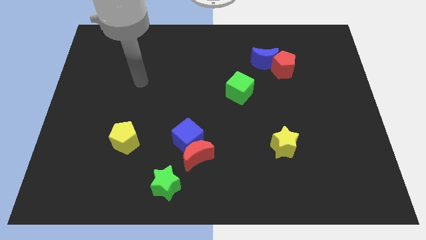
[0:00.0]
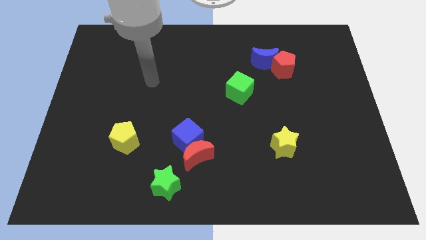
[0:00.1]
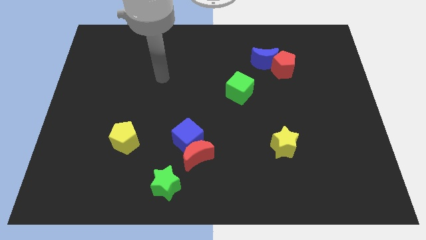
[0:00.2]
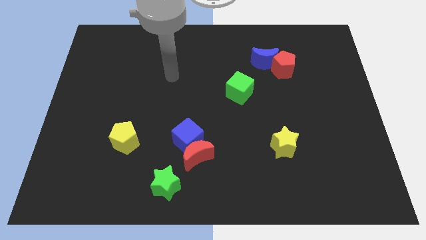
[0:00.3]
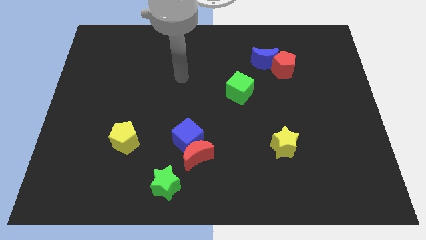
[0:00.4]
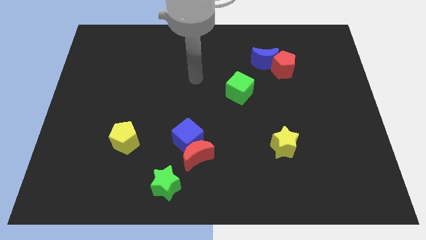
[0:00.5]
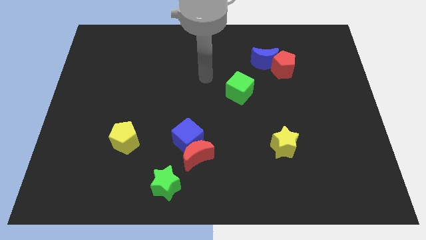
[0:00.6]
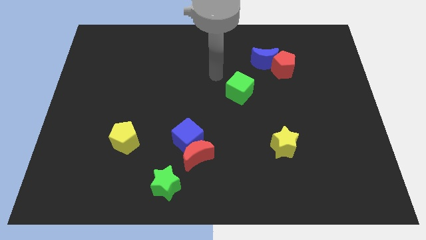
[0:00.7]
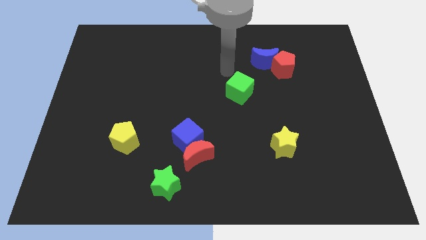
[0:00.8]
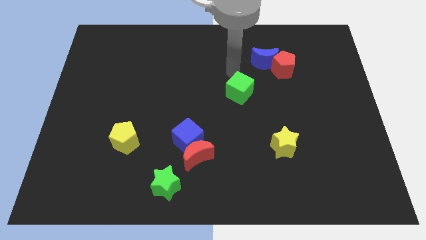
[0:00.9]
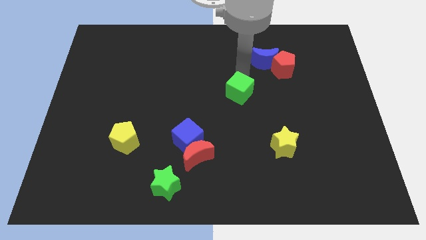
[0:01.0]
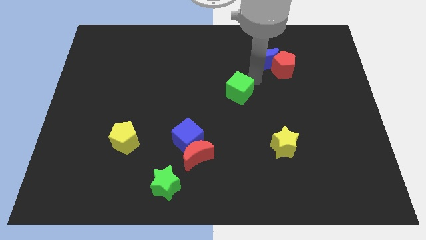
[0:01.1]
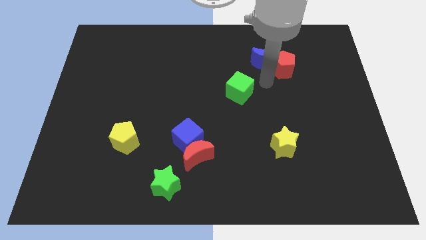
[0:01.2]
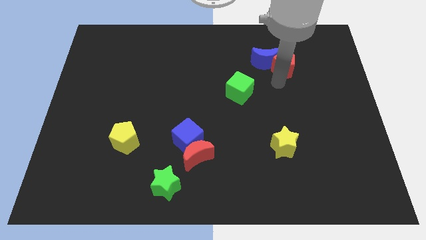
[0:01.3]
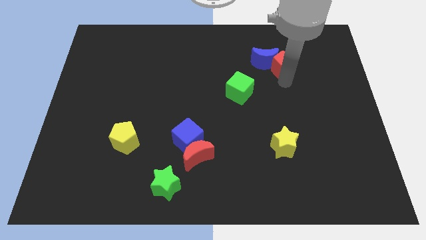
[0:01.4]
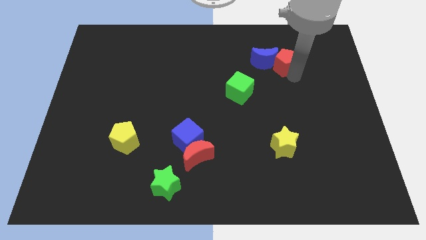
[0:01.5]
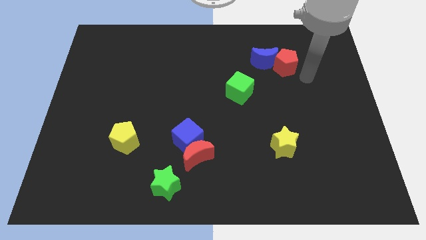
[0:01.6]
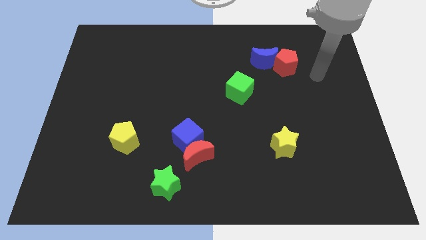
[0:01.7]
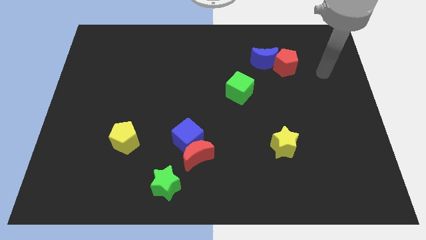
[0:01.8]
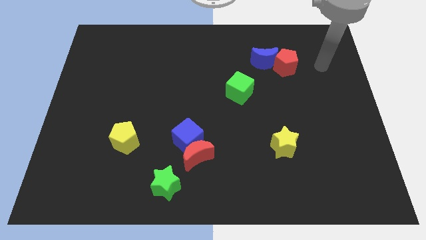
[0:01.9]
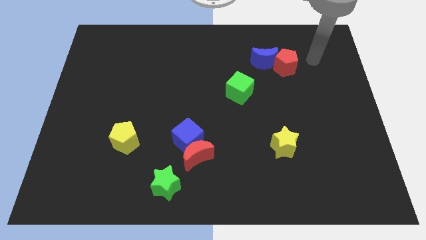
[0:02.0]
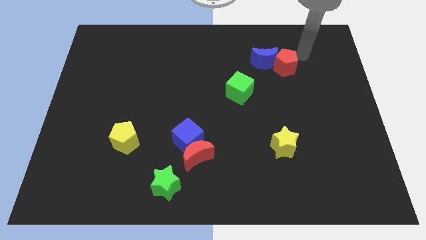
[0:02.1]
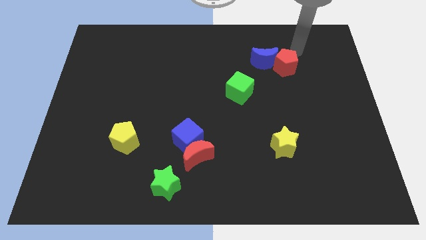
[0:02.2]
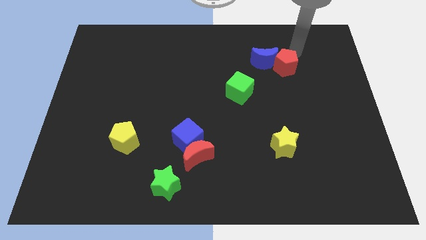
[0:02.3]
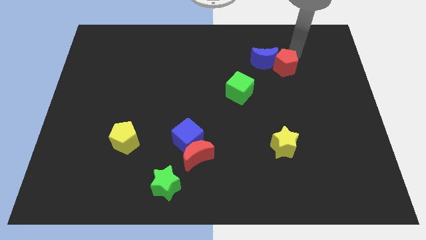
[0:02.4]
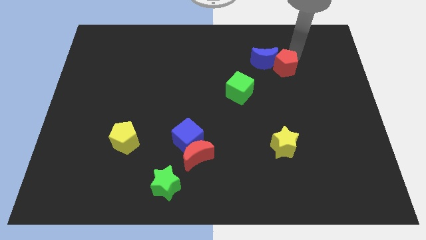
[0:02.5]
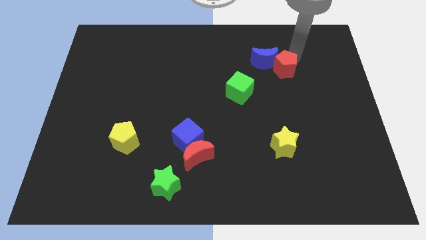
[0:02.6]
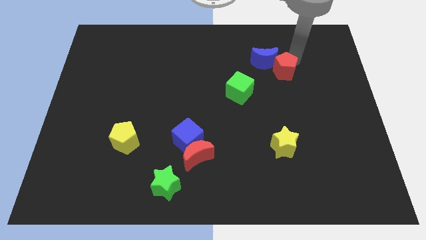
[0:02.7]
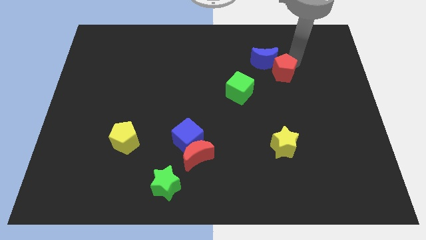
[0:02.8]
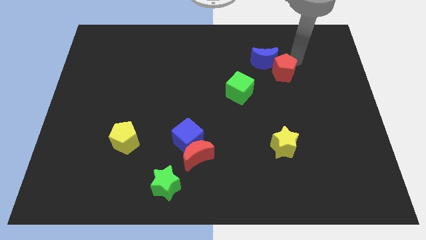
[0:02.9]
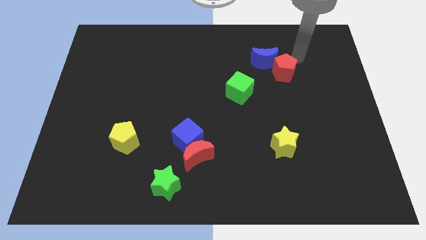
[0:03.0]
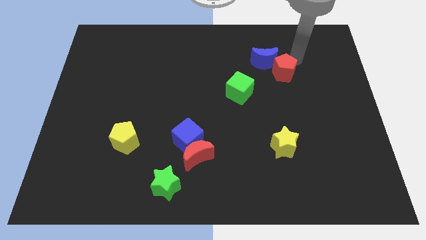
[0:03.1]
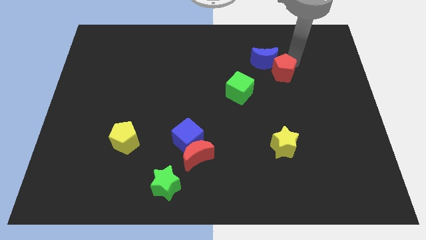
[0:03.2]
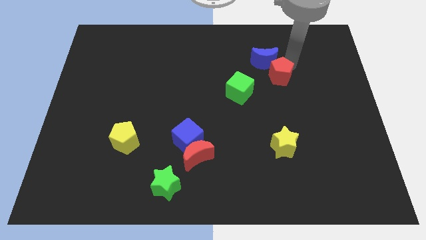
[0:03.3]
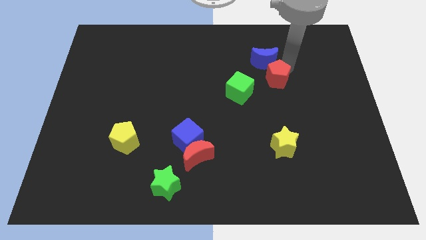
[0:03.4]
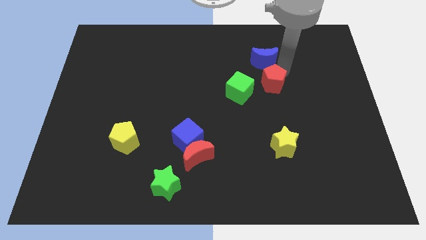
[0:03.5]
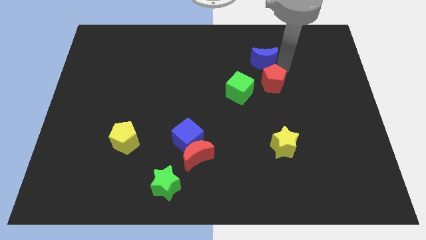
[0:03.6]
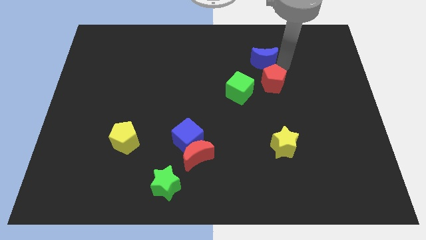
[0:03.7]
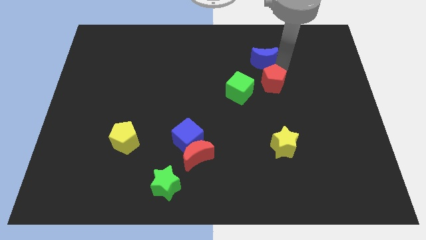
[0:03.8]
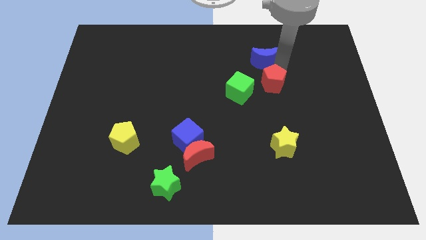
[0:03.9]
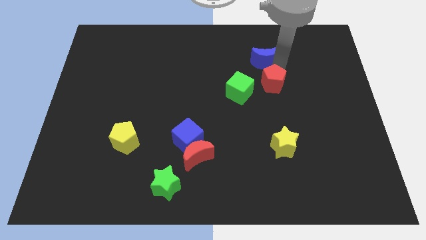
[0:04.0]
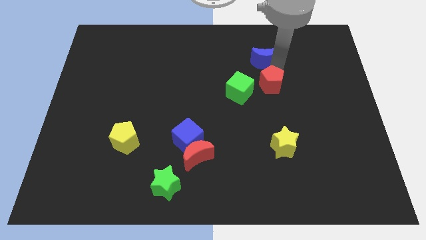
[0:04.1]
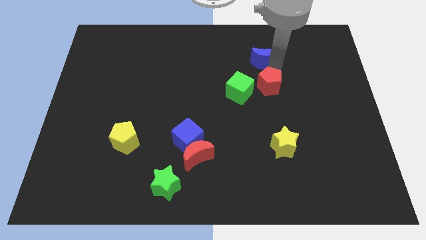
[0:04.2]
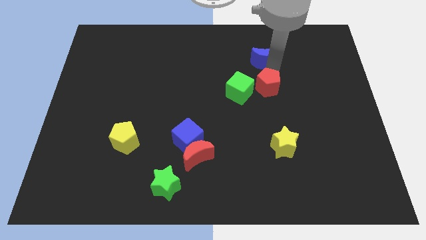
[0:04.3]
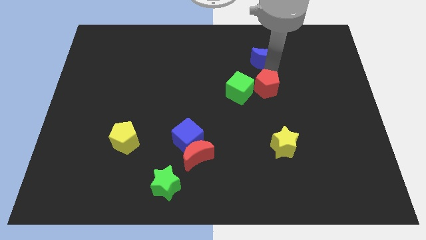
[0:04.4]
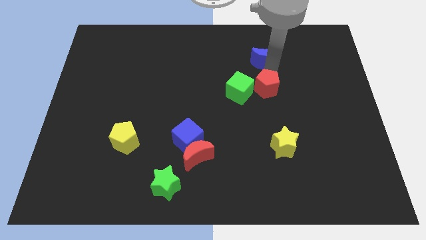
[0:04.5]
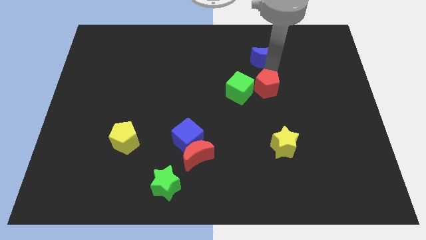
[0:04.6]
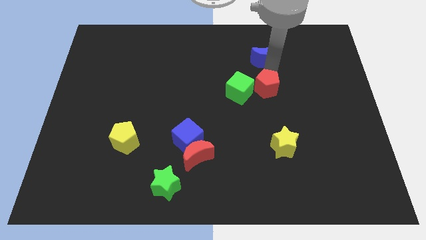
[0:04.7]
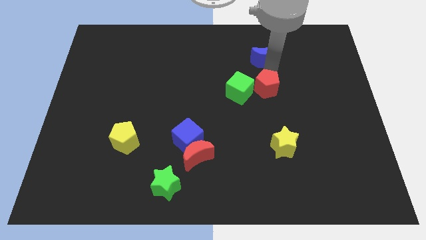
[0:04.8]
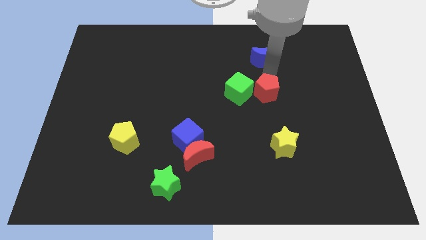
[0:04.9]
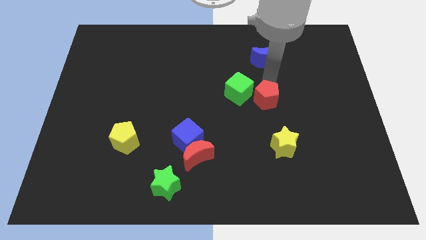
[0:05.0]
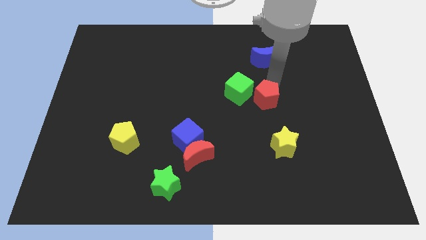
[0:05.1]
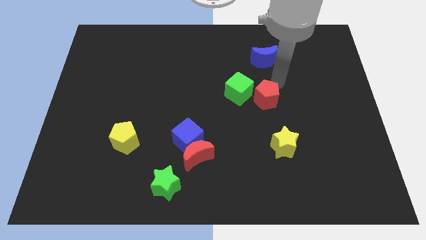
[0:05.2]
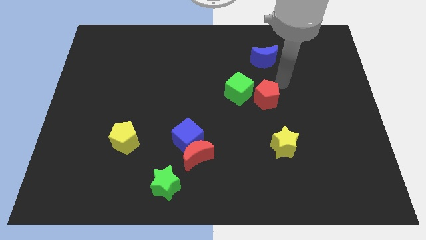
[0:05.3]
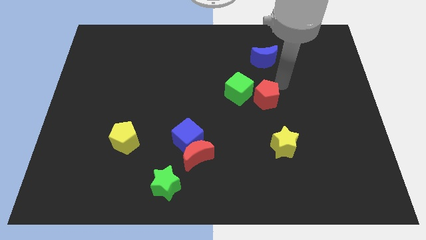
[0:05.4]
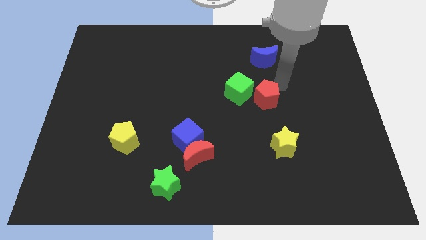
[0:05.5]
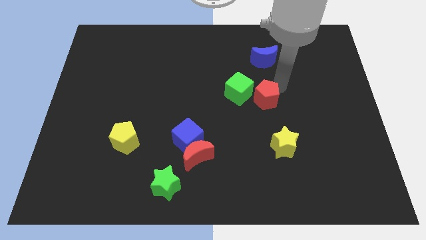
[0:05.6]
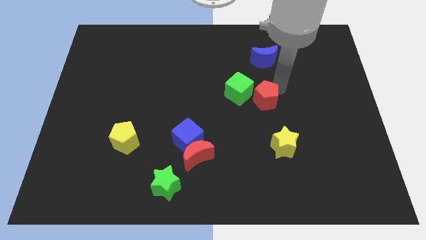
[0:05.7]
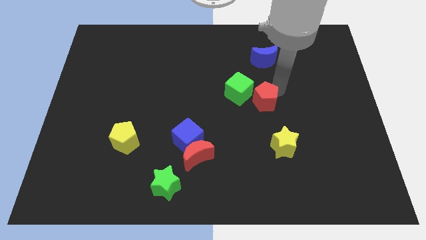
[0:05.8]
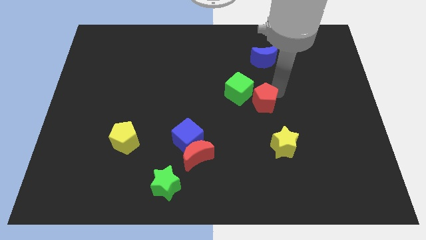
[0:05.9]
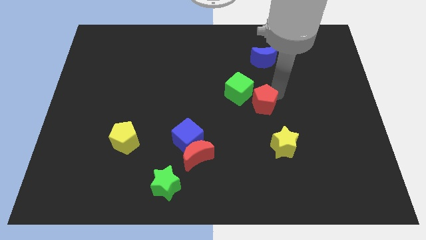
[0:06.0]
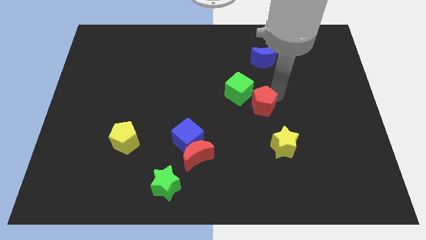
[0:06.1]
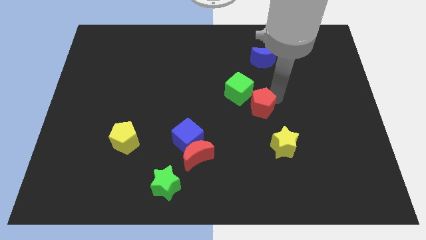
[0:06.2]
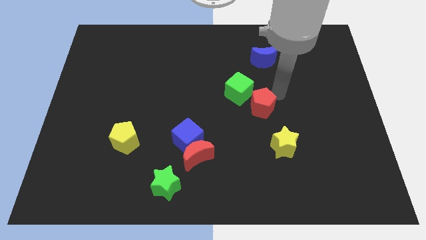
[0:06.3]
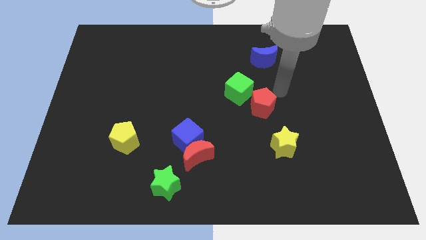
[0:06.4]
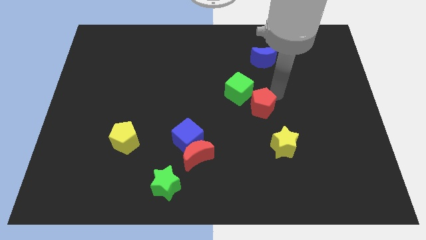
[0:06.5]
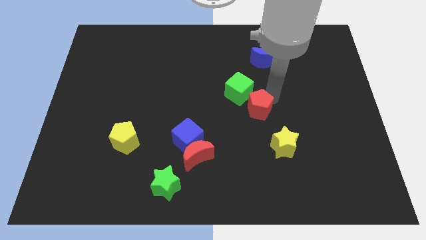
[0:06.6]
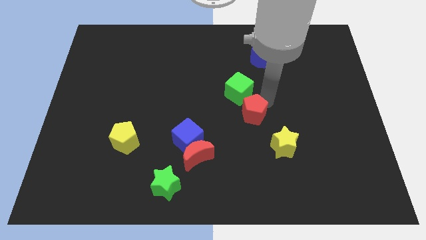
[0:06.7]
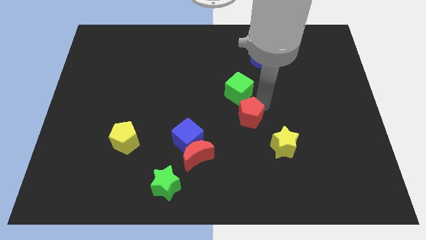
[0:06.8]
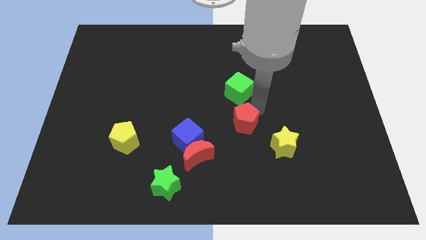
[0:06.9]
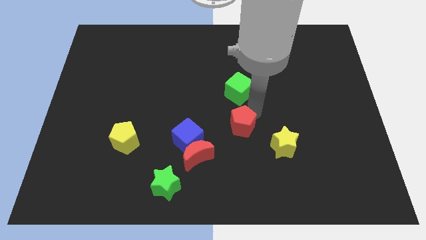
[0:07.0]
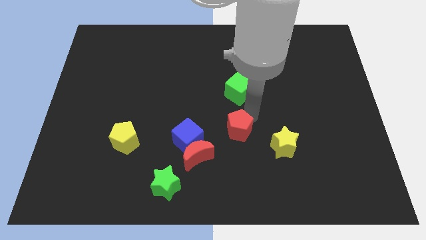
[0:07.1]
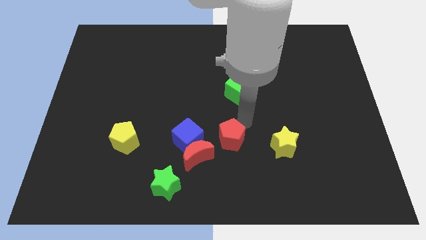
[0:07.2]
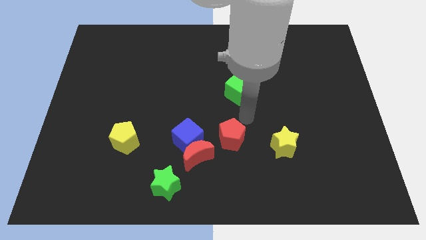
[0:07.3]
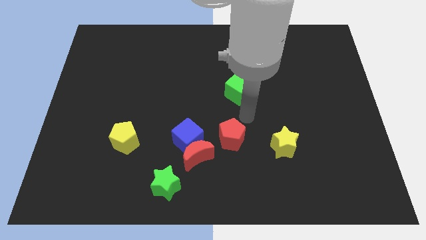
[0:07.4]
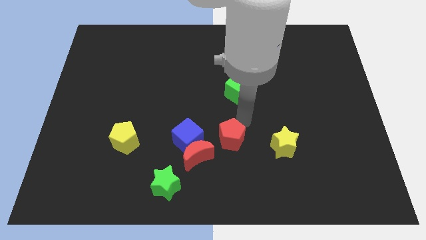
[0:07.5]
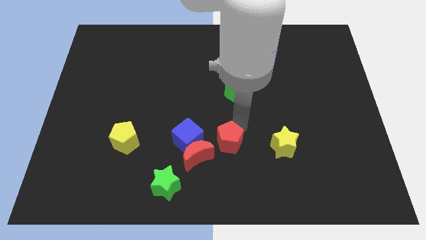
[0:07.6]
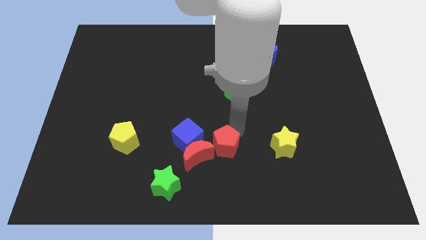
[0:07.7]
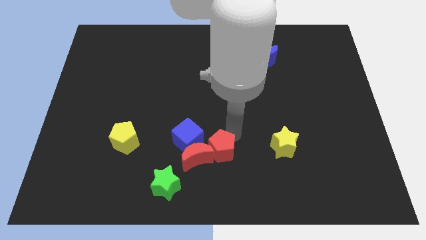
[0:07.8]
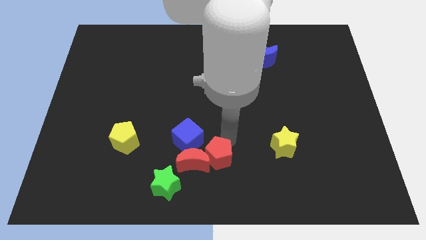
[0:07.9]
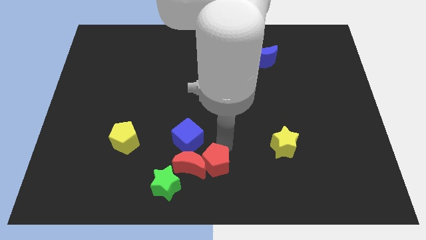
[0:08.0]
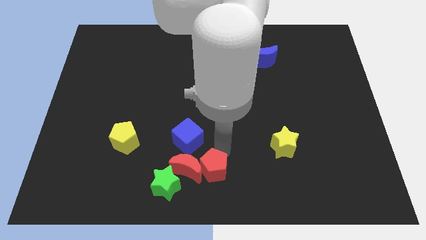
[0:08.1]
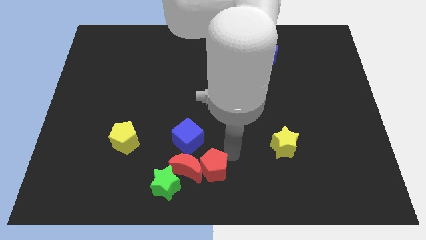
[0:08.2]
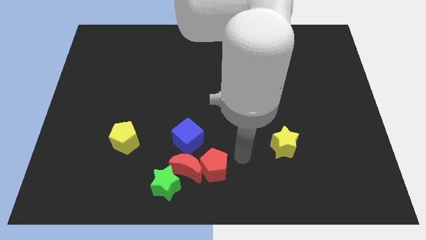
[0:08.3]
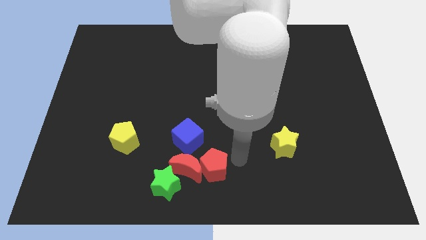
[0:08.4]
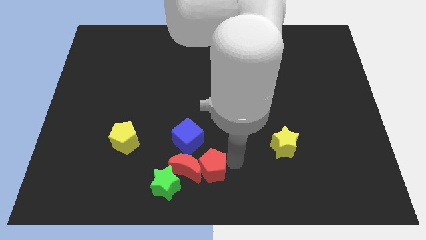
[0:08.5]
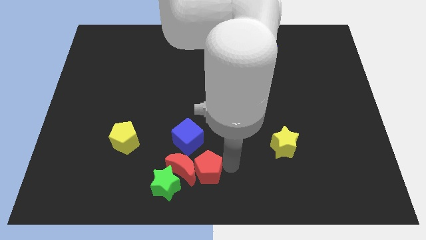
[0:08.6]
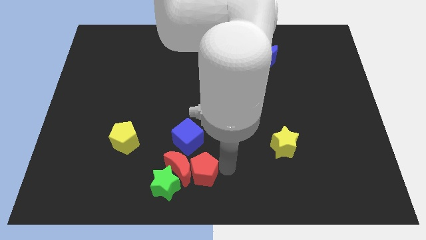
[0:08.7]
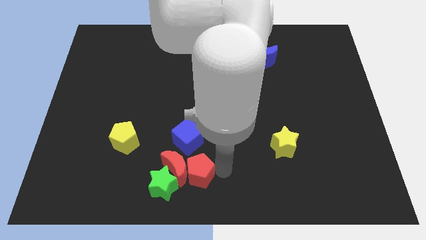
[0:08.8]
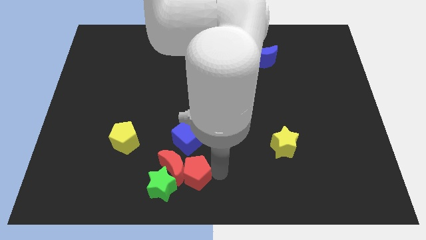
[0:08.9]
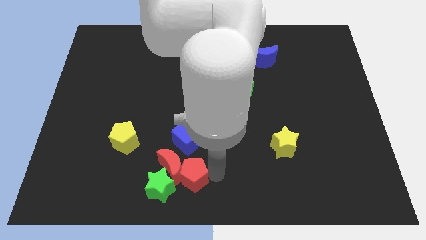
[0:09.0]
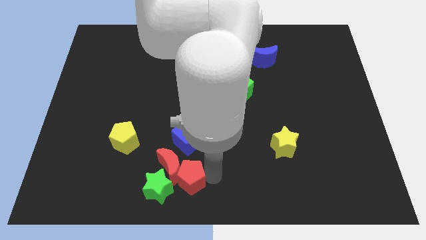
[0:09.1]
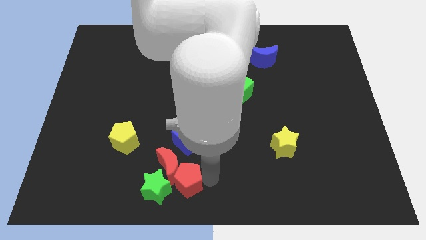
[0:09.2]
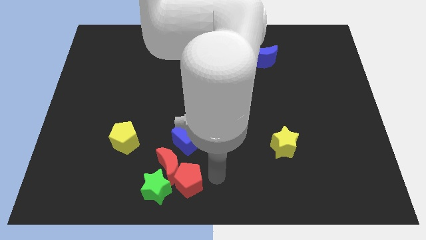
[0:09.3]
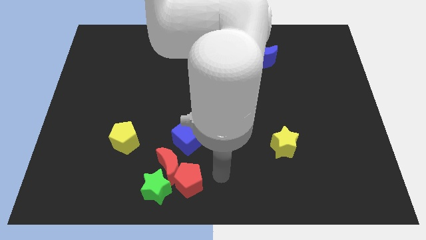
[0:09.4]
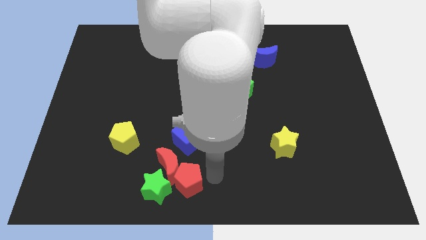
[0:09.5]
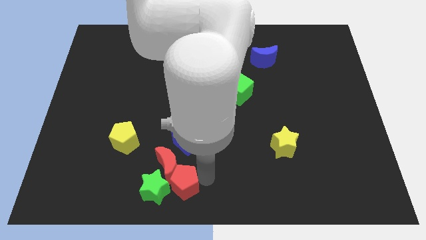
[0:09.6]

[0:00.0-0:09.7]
push the red pentagon close to the green star
